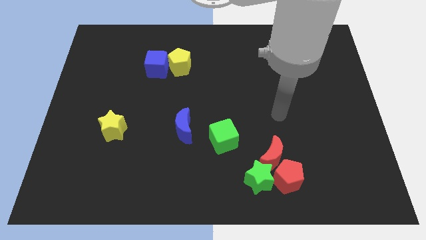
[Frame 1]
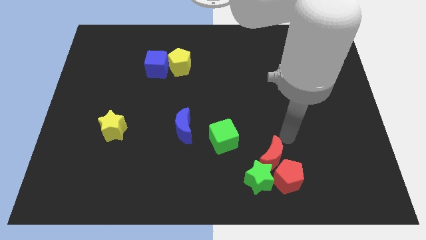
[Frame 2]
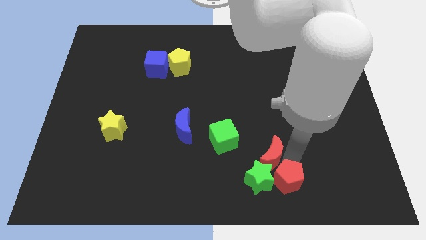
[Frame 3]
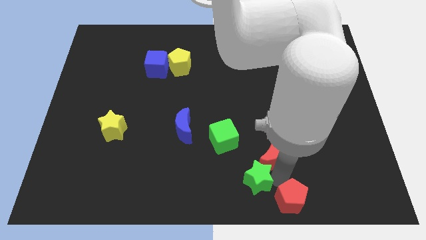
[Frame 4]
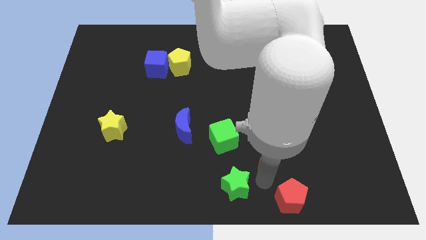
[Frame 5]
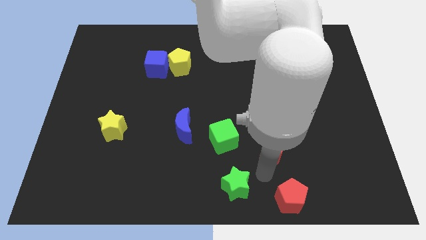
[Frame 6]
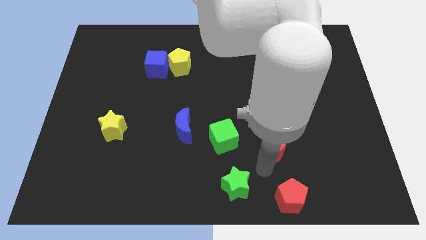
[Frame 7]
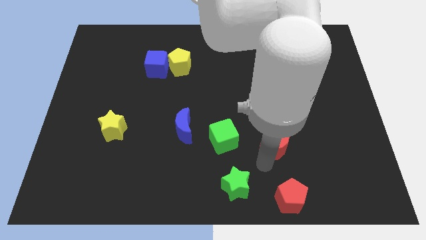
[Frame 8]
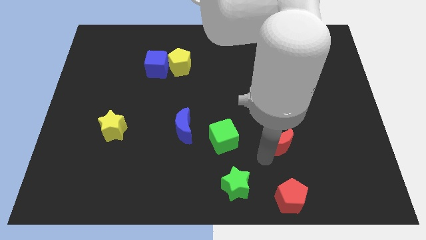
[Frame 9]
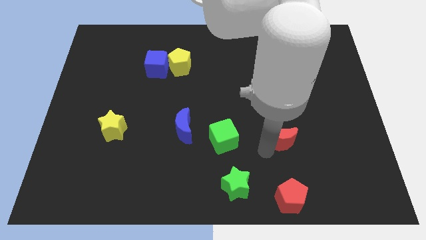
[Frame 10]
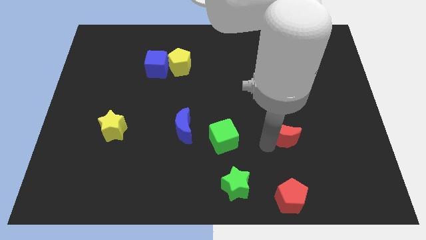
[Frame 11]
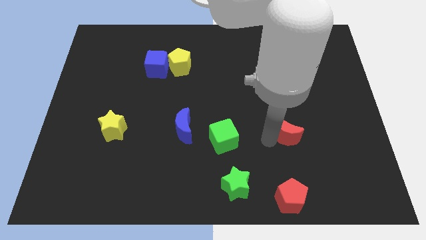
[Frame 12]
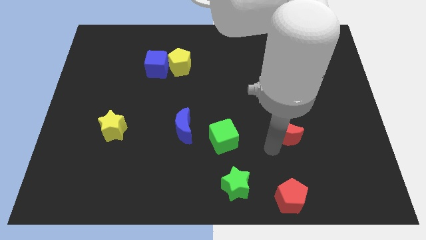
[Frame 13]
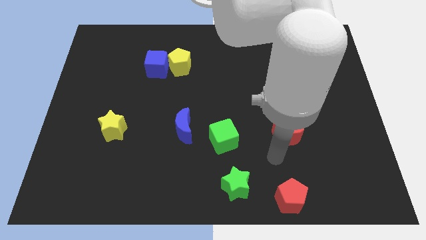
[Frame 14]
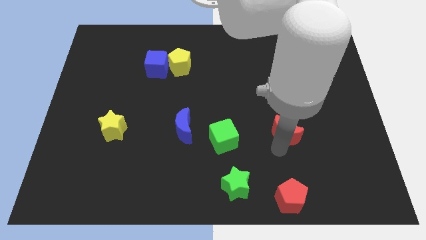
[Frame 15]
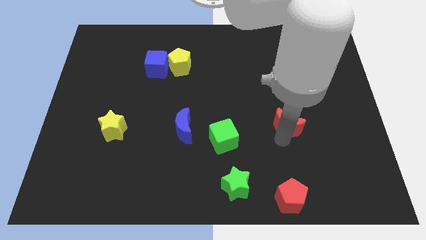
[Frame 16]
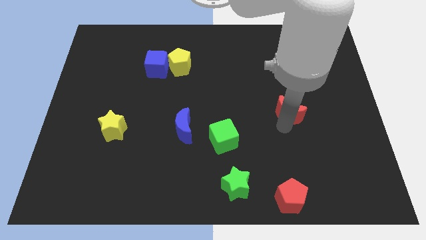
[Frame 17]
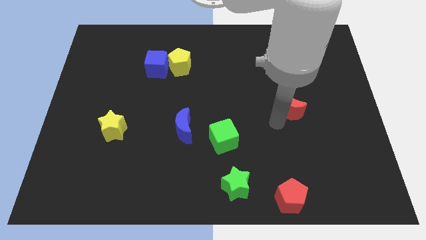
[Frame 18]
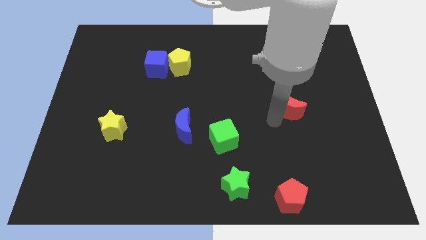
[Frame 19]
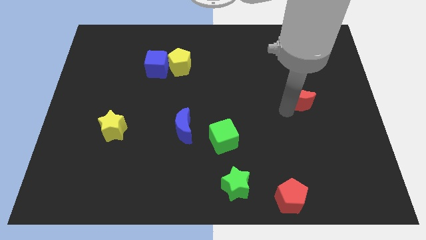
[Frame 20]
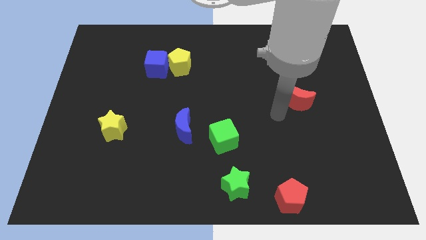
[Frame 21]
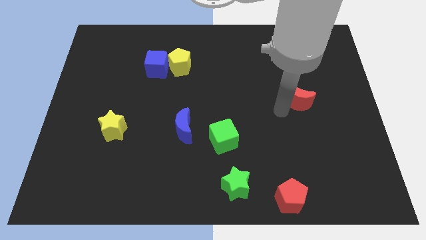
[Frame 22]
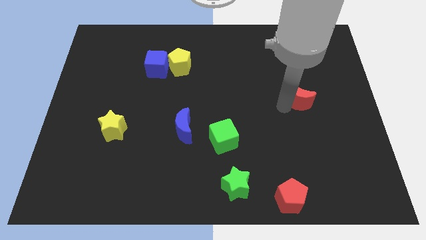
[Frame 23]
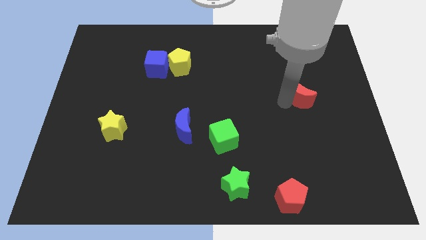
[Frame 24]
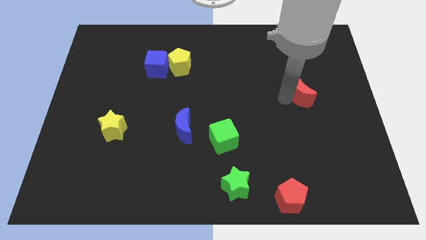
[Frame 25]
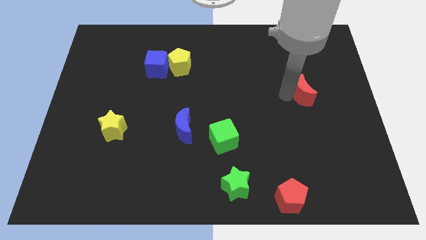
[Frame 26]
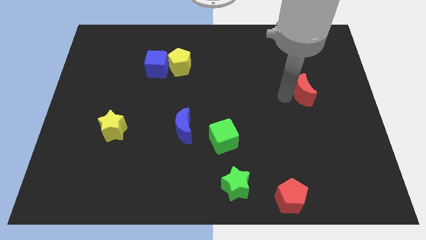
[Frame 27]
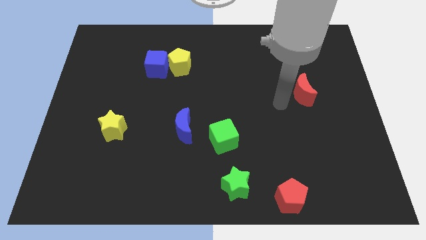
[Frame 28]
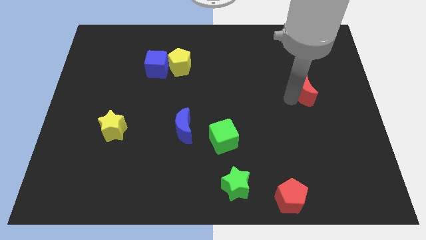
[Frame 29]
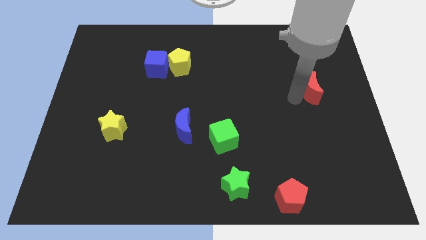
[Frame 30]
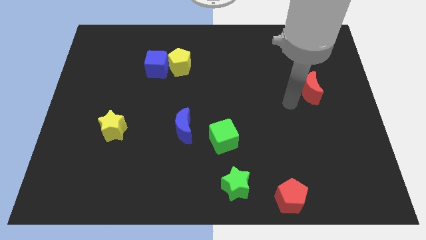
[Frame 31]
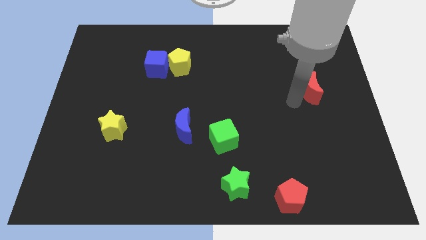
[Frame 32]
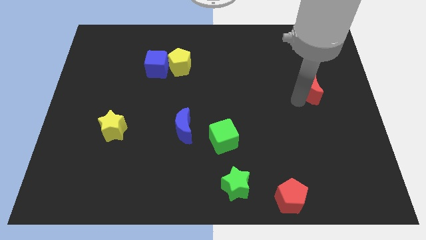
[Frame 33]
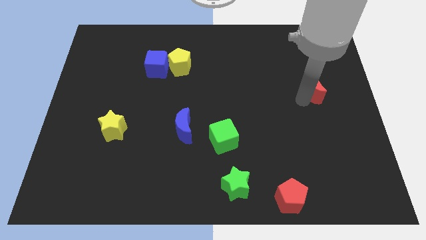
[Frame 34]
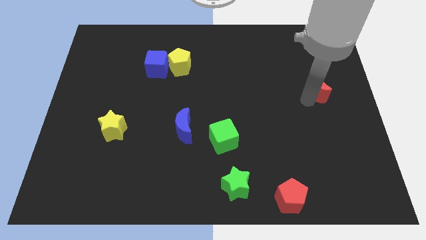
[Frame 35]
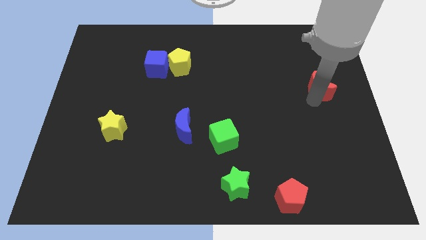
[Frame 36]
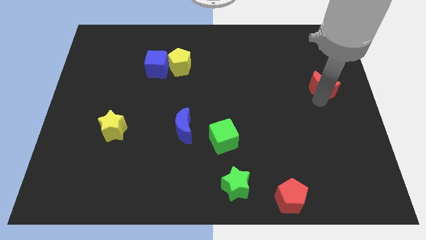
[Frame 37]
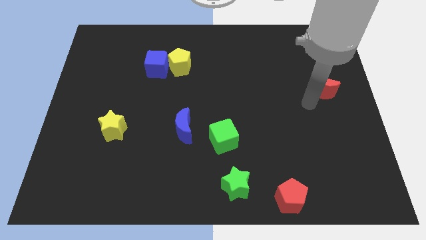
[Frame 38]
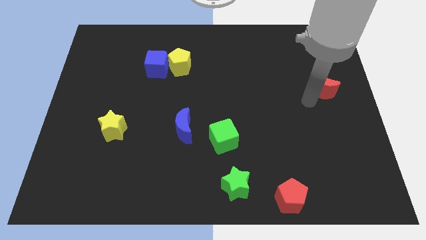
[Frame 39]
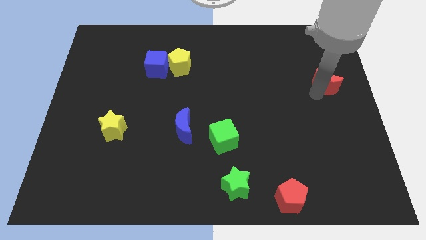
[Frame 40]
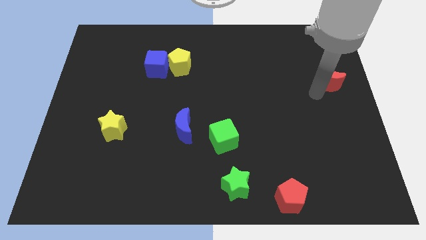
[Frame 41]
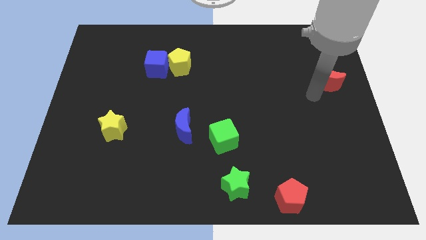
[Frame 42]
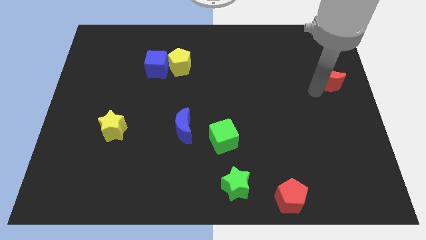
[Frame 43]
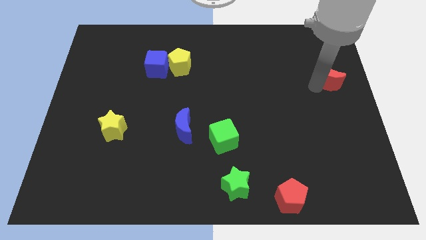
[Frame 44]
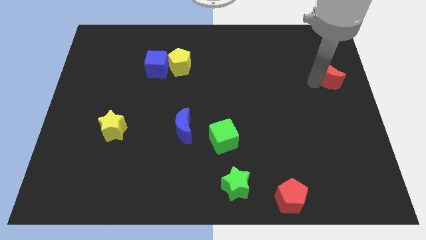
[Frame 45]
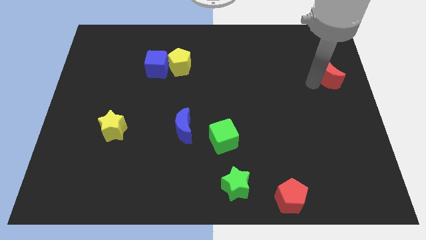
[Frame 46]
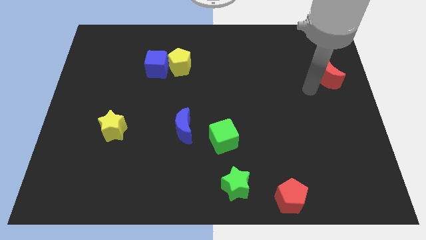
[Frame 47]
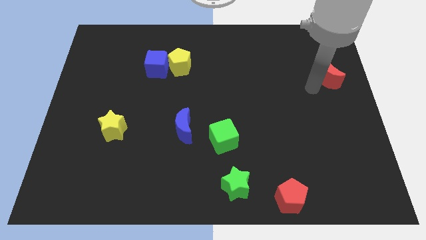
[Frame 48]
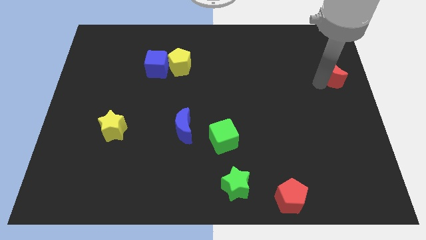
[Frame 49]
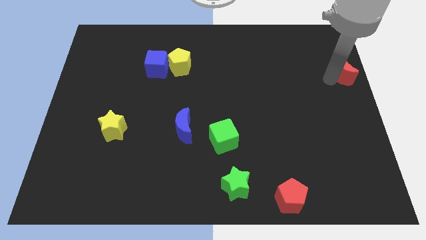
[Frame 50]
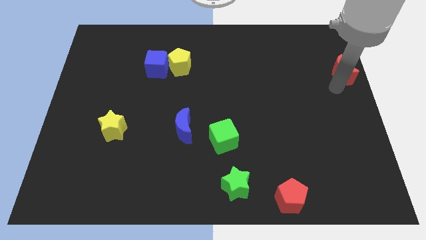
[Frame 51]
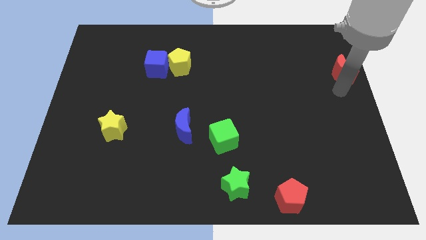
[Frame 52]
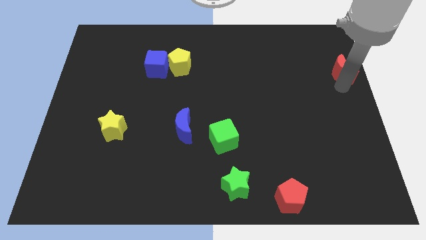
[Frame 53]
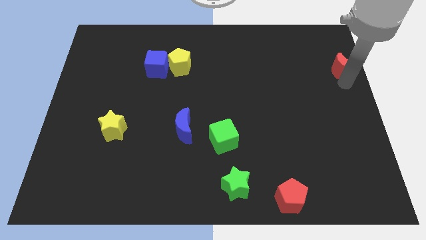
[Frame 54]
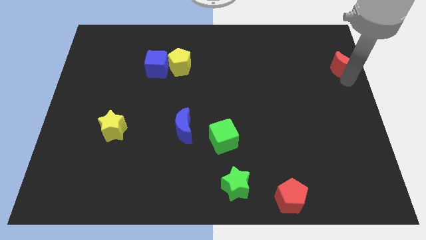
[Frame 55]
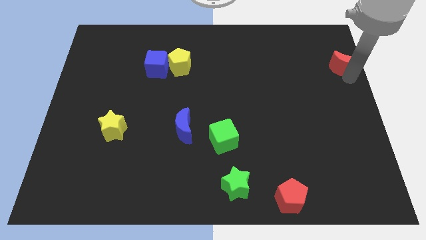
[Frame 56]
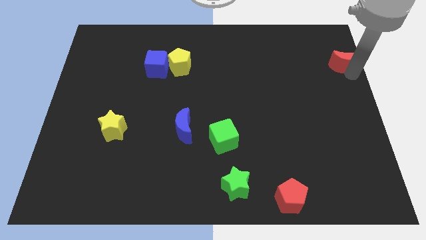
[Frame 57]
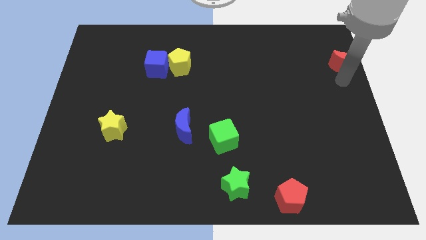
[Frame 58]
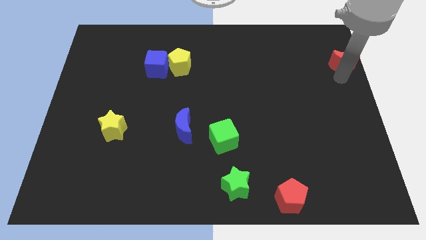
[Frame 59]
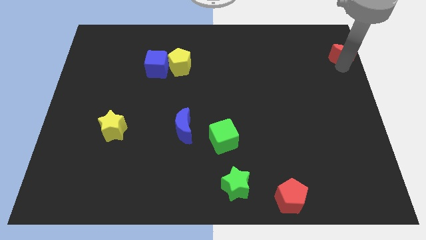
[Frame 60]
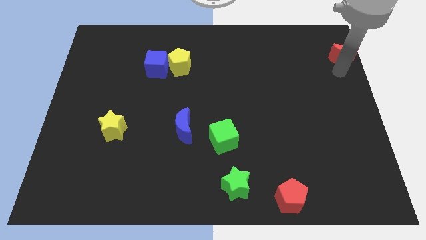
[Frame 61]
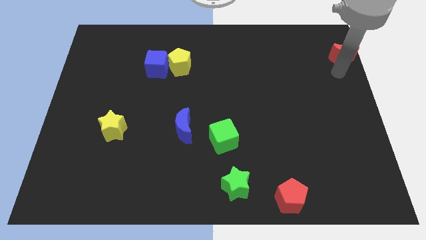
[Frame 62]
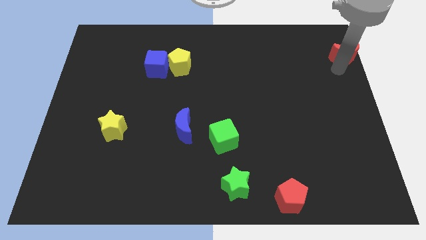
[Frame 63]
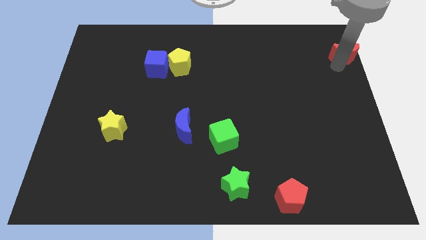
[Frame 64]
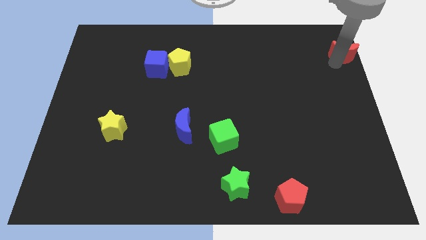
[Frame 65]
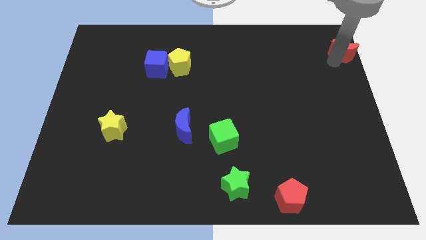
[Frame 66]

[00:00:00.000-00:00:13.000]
move the red moon to the top right
